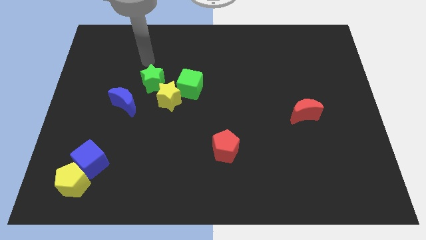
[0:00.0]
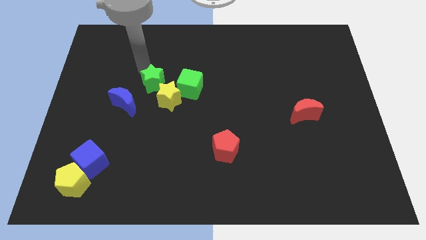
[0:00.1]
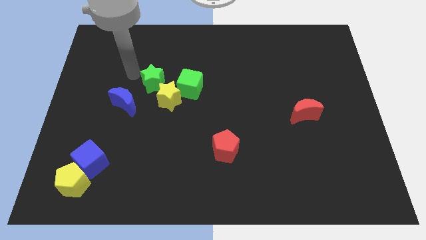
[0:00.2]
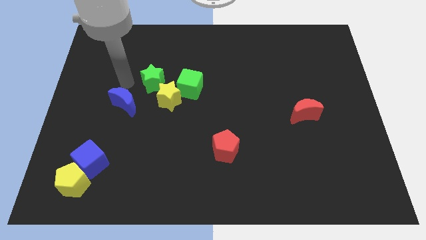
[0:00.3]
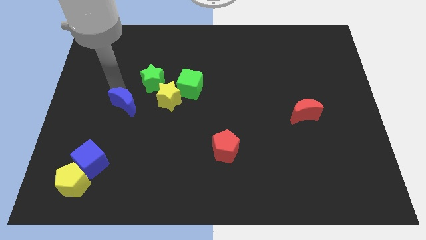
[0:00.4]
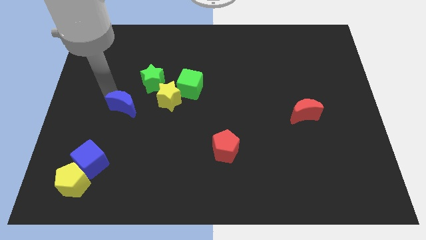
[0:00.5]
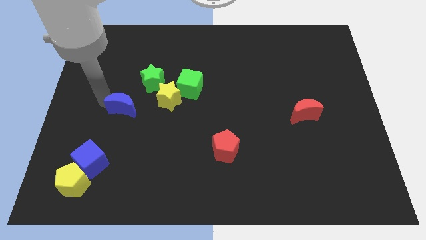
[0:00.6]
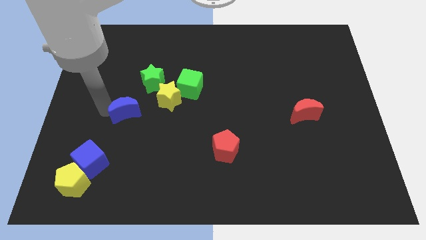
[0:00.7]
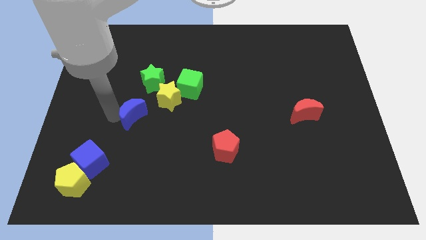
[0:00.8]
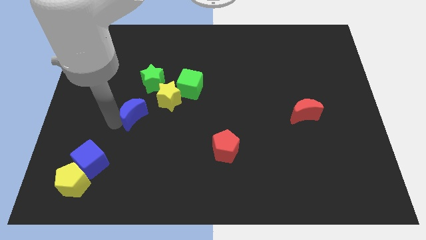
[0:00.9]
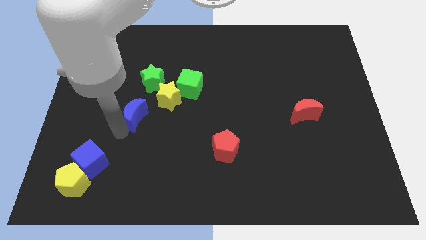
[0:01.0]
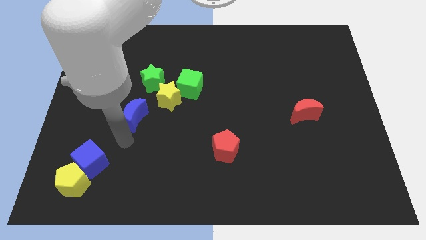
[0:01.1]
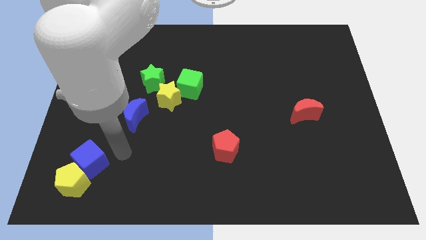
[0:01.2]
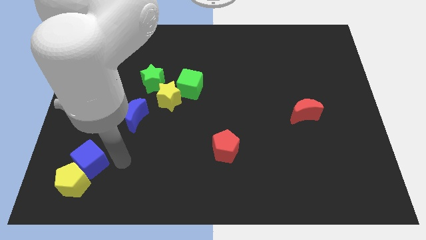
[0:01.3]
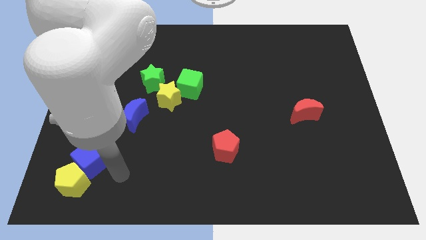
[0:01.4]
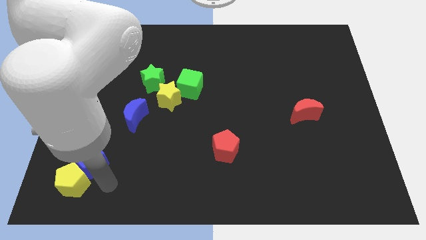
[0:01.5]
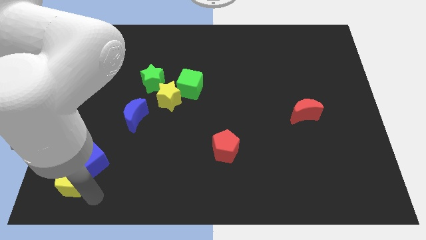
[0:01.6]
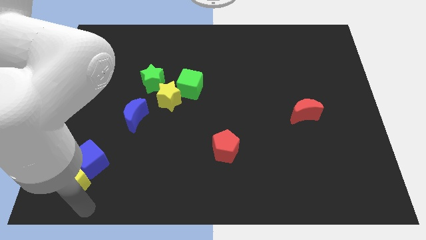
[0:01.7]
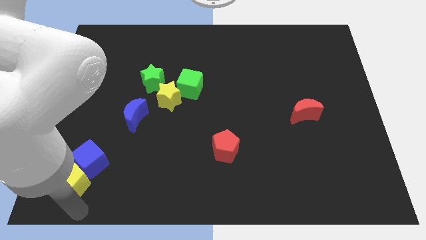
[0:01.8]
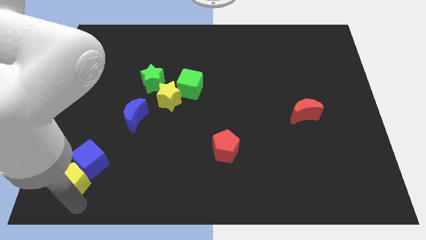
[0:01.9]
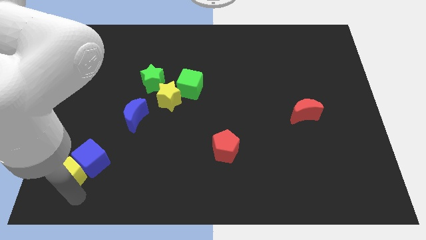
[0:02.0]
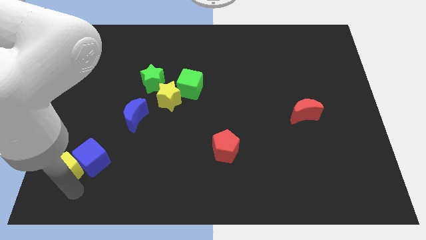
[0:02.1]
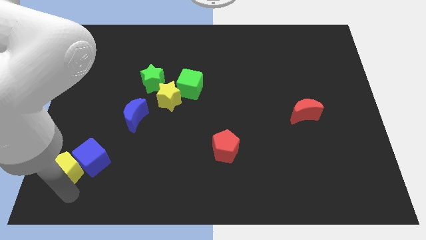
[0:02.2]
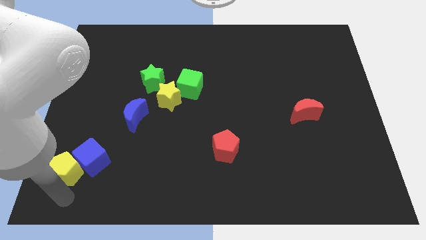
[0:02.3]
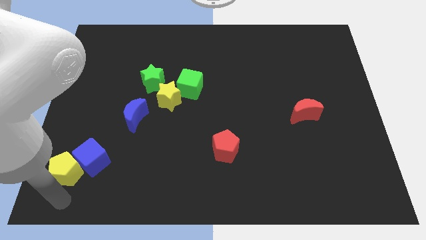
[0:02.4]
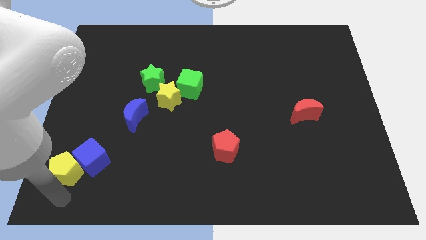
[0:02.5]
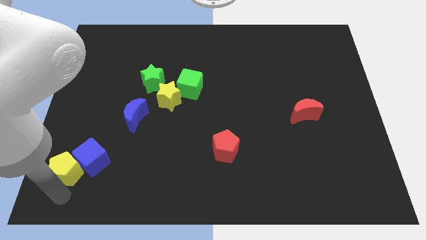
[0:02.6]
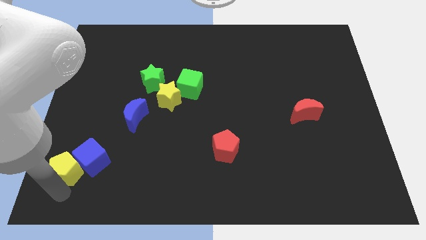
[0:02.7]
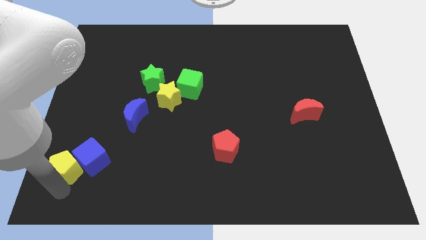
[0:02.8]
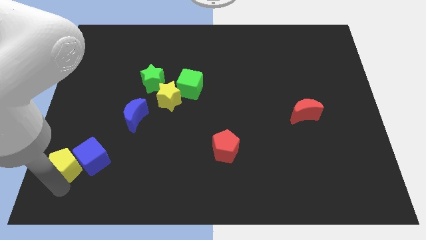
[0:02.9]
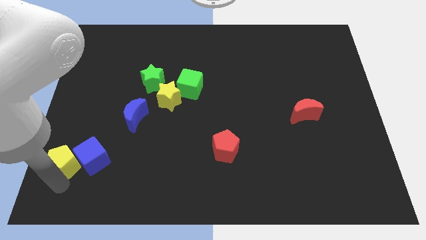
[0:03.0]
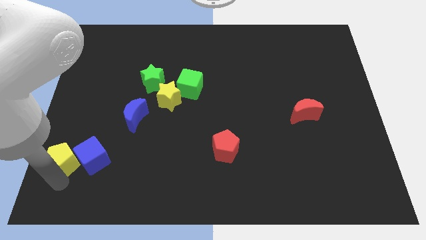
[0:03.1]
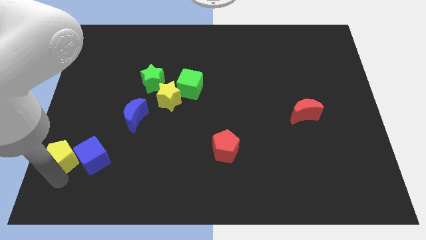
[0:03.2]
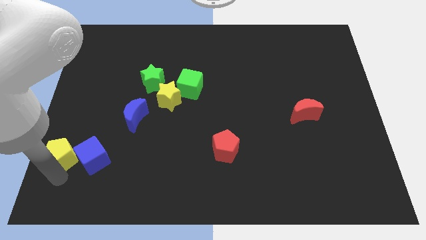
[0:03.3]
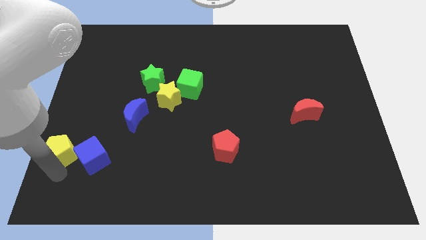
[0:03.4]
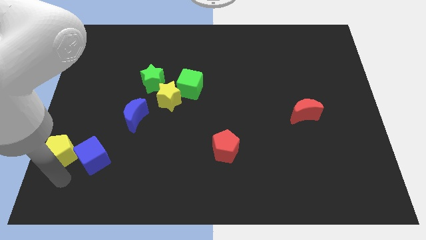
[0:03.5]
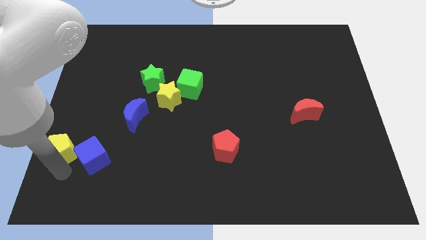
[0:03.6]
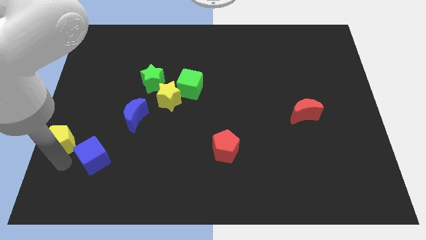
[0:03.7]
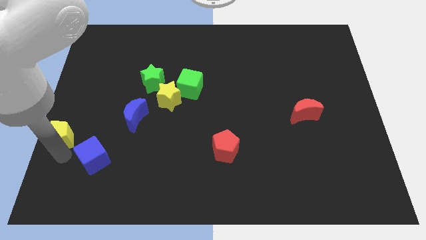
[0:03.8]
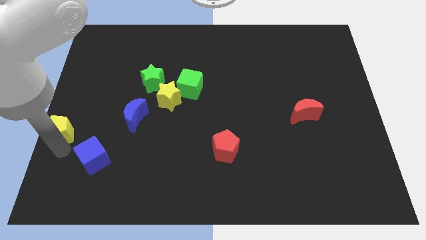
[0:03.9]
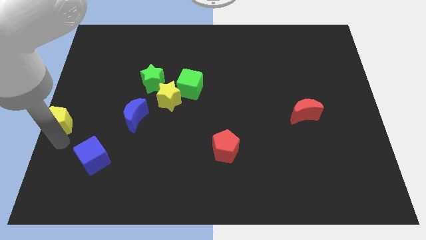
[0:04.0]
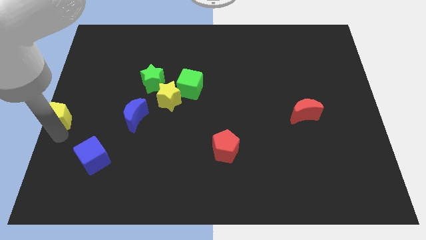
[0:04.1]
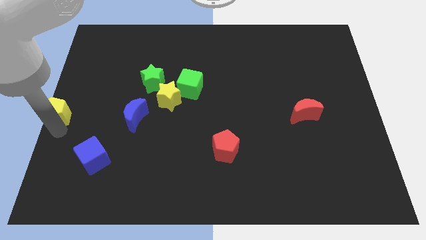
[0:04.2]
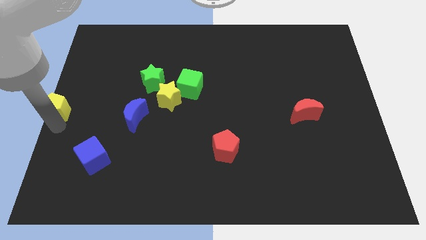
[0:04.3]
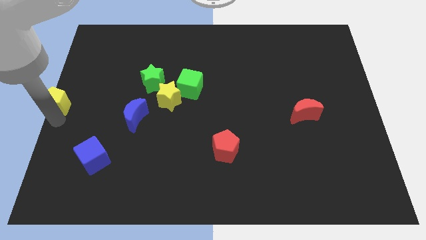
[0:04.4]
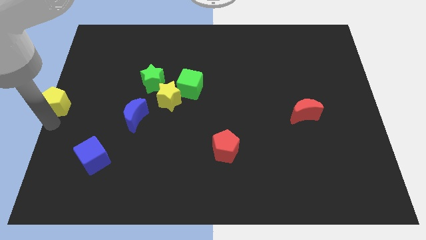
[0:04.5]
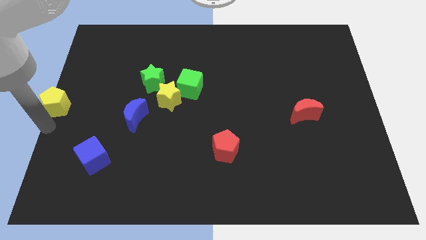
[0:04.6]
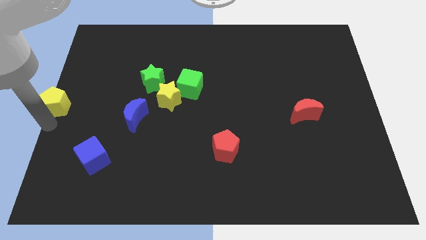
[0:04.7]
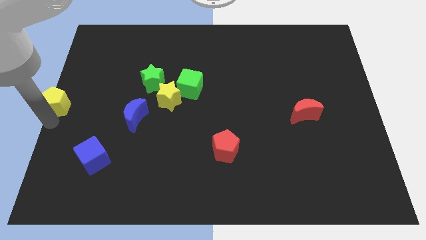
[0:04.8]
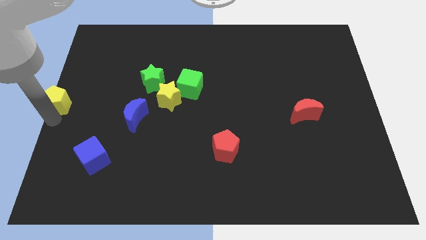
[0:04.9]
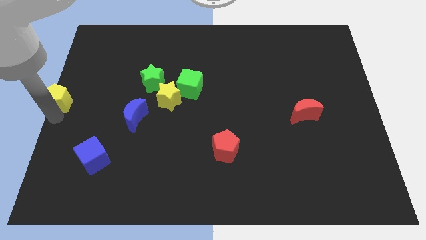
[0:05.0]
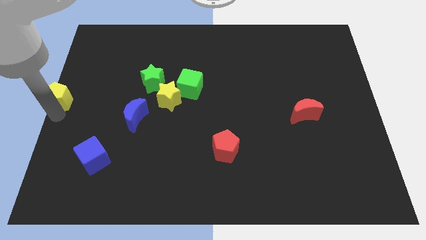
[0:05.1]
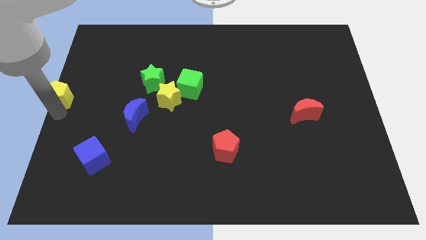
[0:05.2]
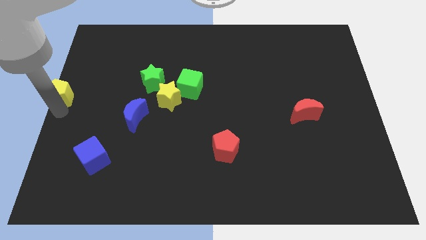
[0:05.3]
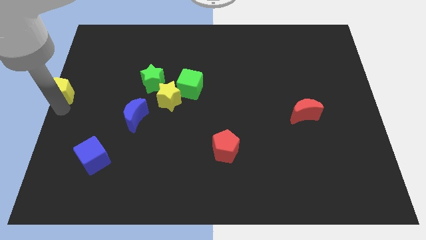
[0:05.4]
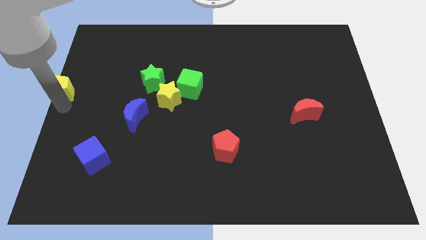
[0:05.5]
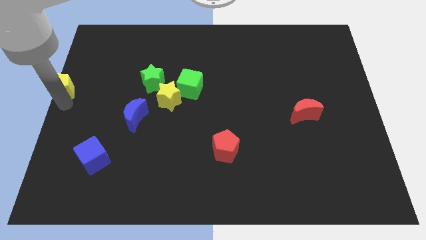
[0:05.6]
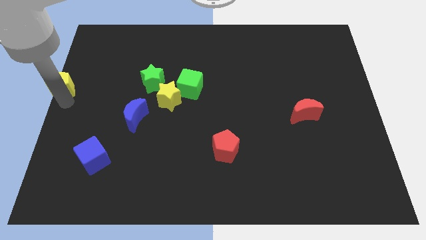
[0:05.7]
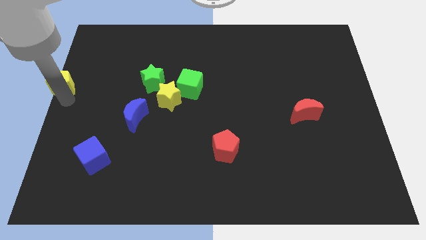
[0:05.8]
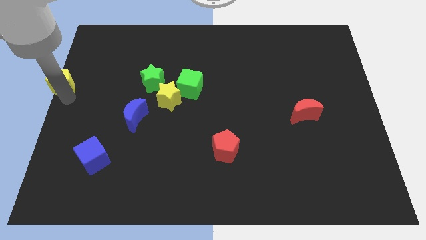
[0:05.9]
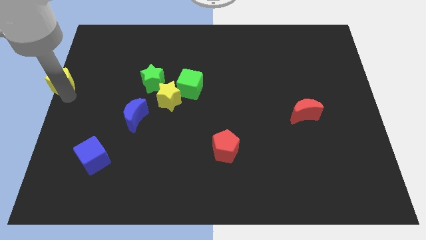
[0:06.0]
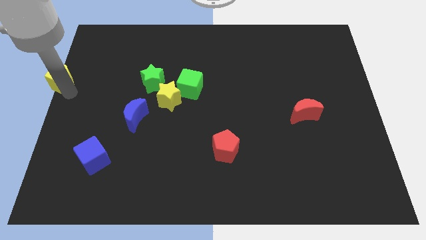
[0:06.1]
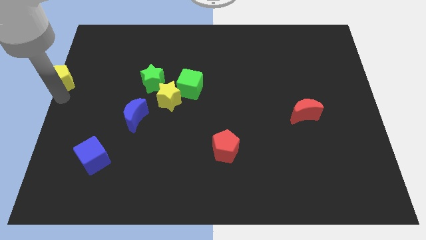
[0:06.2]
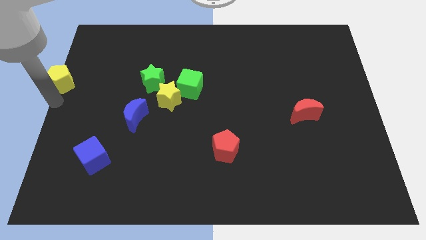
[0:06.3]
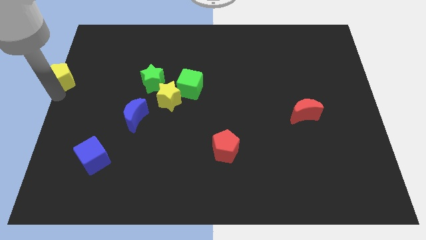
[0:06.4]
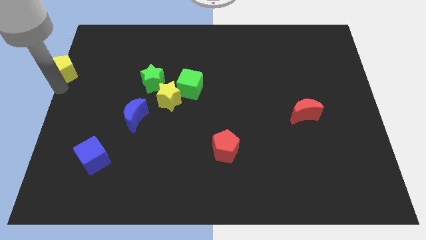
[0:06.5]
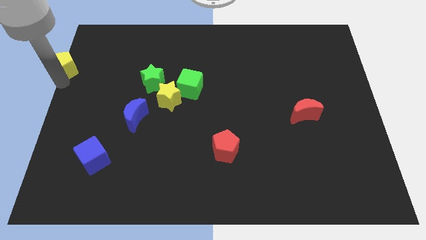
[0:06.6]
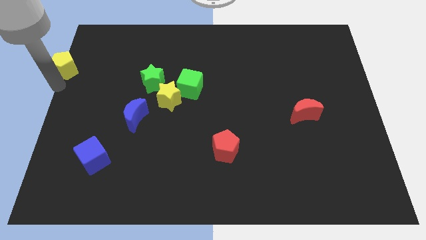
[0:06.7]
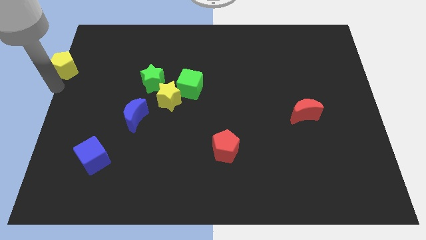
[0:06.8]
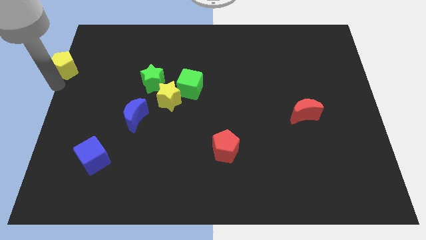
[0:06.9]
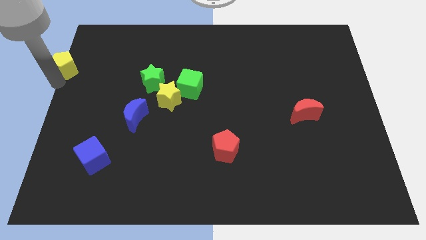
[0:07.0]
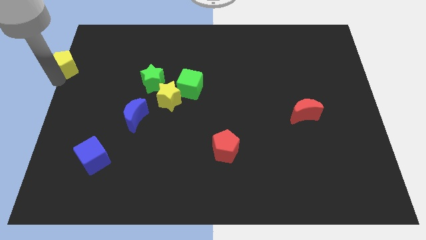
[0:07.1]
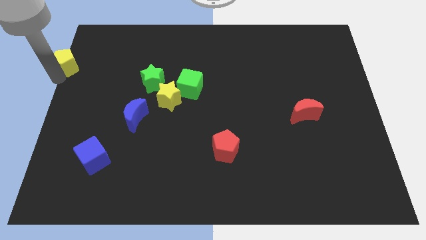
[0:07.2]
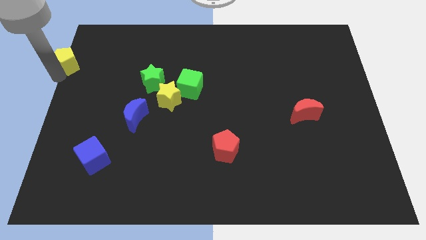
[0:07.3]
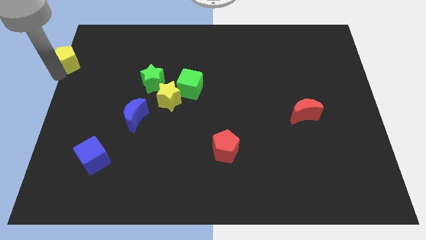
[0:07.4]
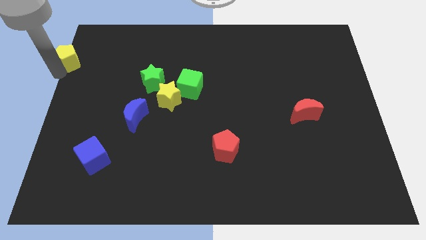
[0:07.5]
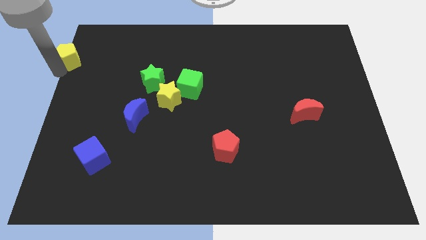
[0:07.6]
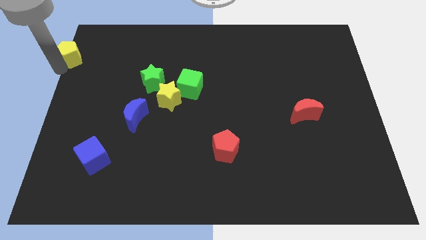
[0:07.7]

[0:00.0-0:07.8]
move the yellow pentagon to the top left
